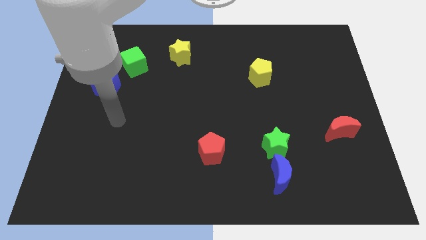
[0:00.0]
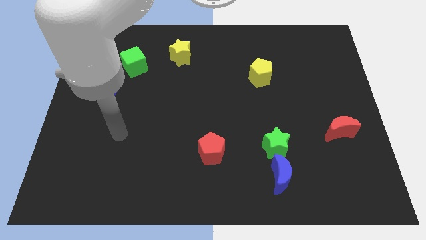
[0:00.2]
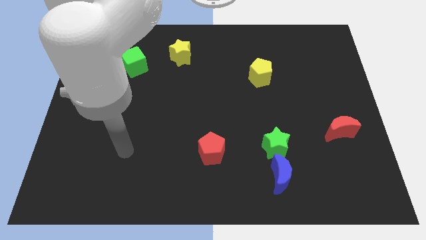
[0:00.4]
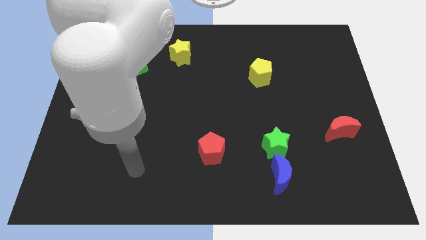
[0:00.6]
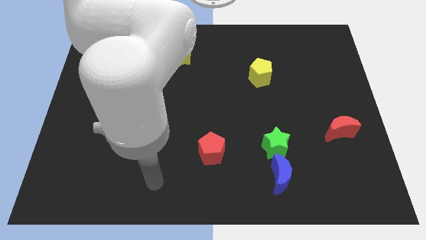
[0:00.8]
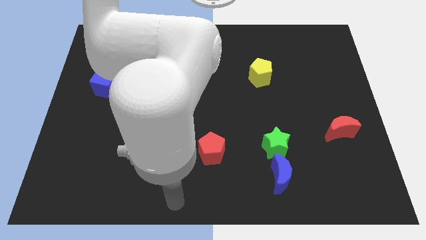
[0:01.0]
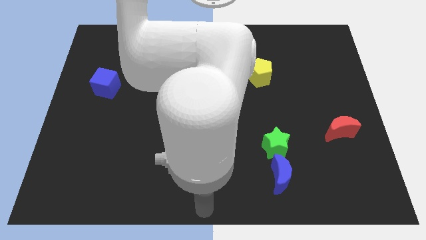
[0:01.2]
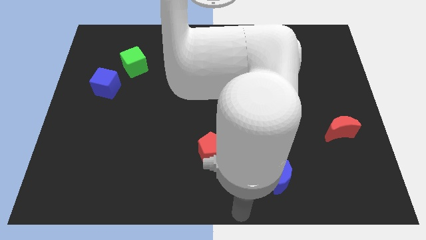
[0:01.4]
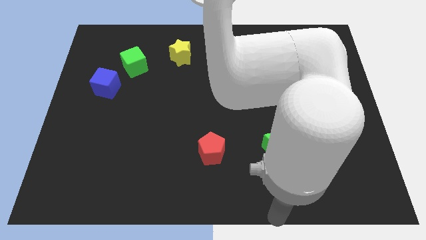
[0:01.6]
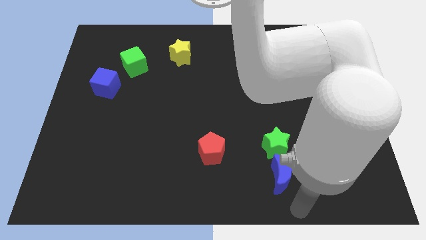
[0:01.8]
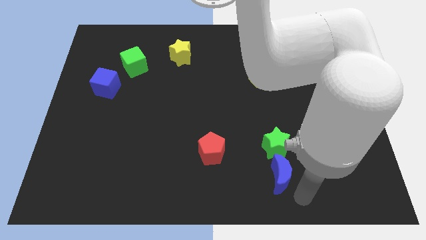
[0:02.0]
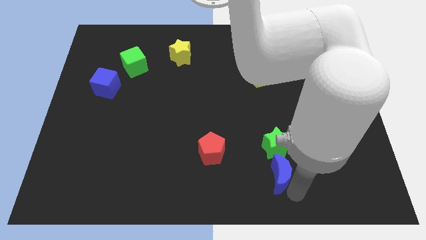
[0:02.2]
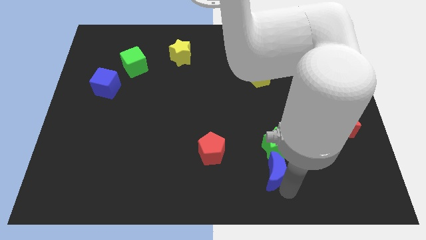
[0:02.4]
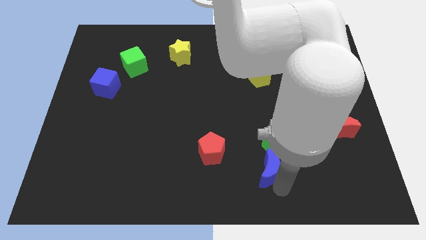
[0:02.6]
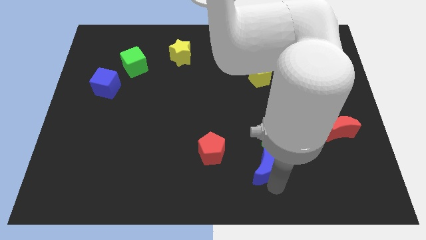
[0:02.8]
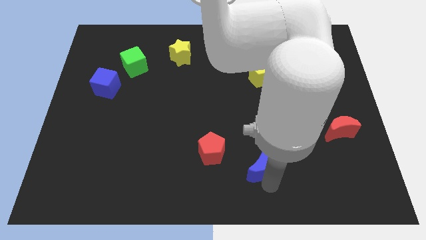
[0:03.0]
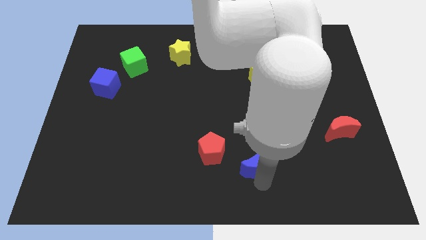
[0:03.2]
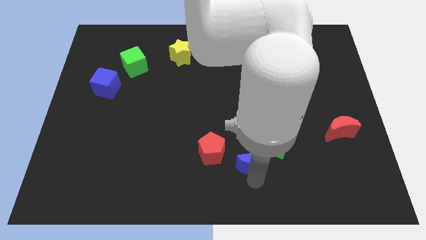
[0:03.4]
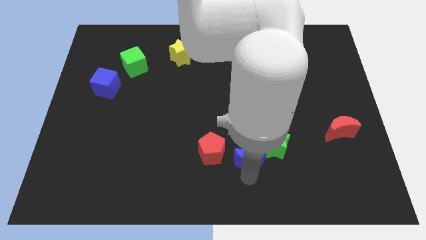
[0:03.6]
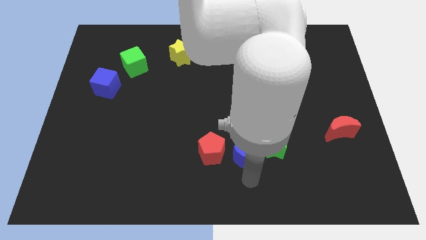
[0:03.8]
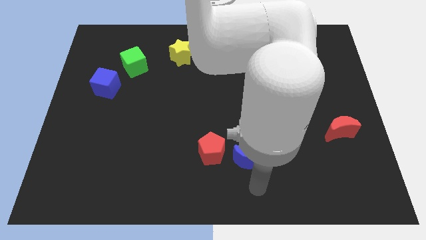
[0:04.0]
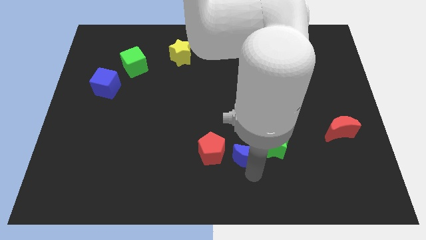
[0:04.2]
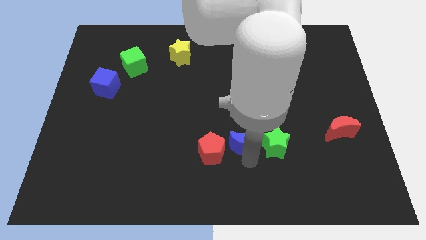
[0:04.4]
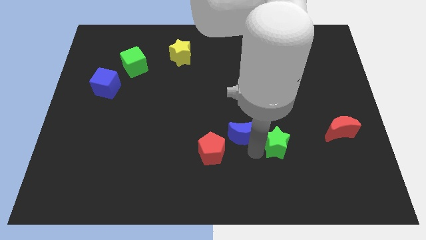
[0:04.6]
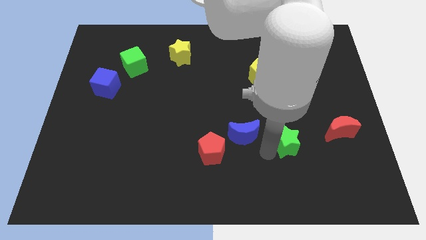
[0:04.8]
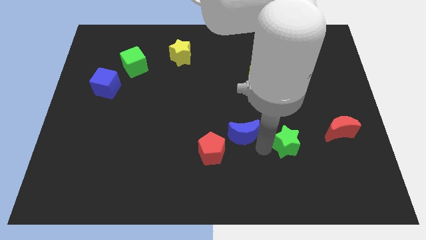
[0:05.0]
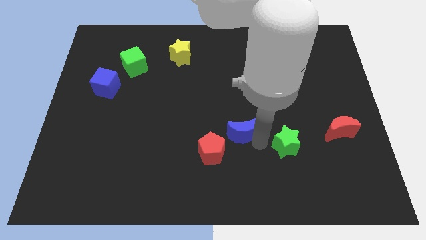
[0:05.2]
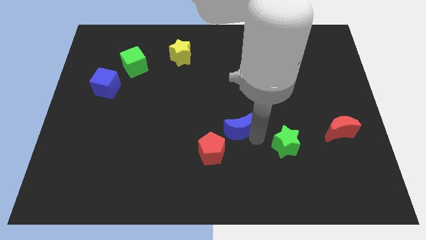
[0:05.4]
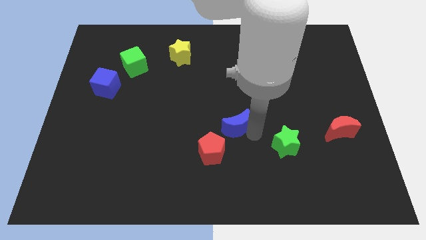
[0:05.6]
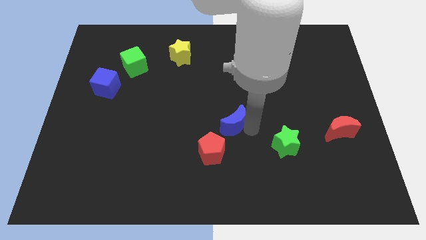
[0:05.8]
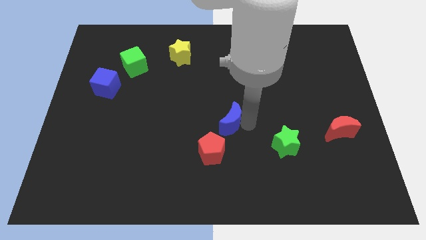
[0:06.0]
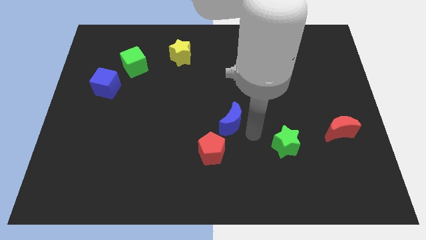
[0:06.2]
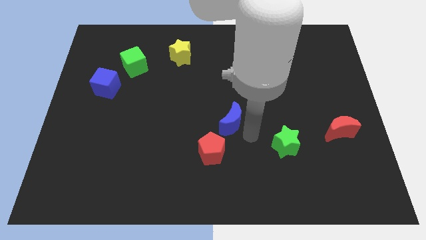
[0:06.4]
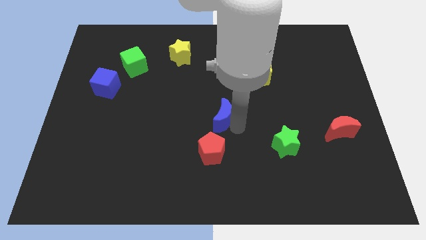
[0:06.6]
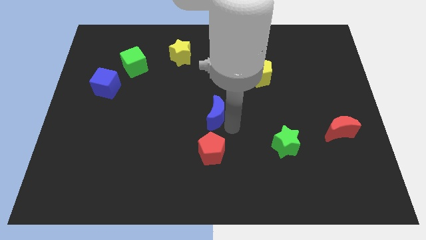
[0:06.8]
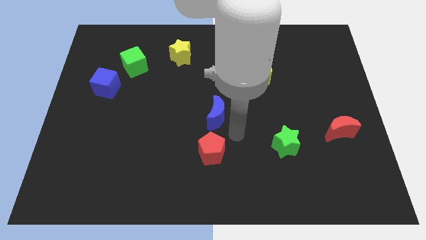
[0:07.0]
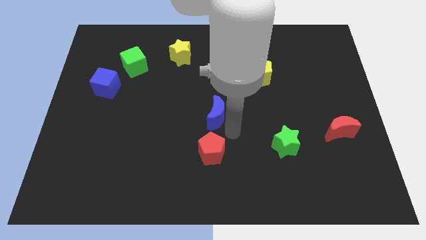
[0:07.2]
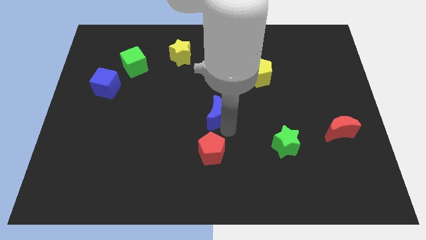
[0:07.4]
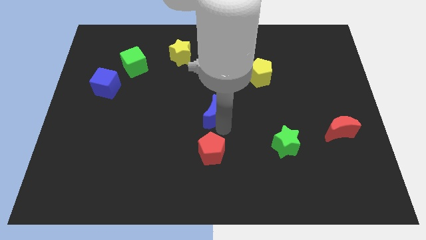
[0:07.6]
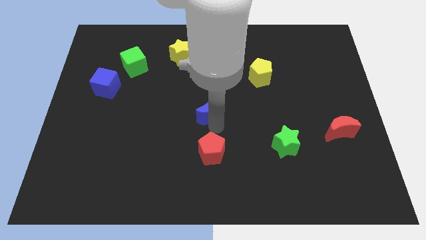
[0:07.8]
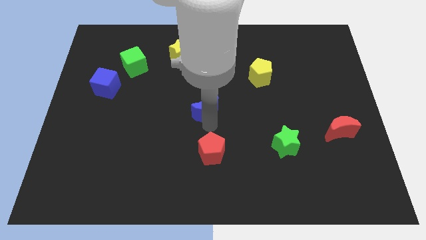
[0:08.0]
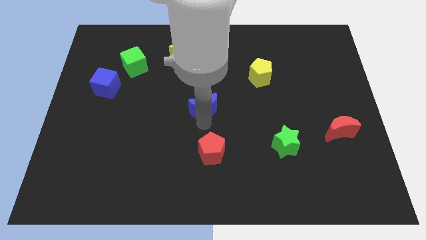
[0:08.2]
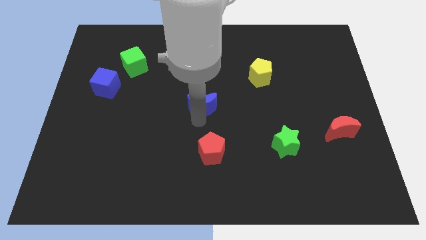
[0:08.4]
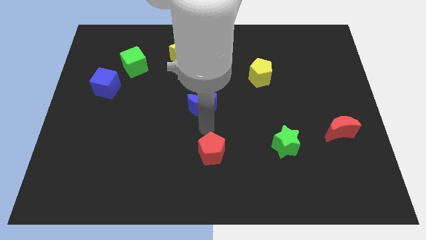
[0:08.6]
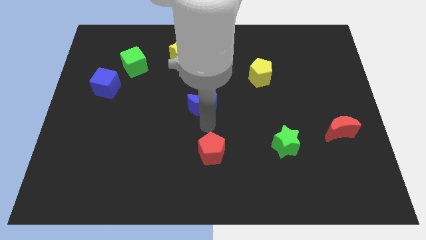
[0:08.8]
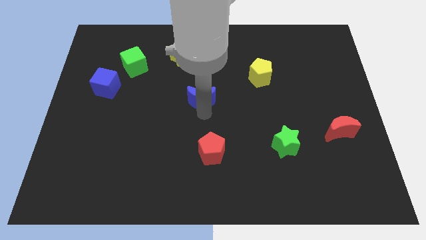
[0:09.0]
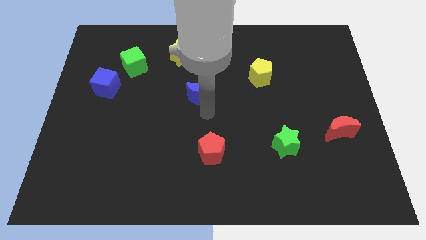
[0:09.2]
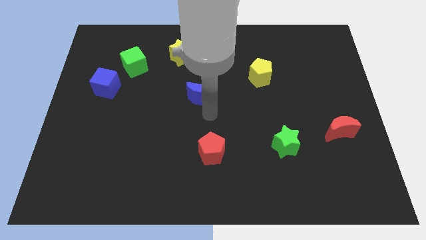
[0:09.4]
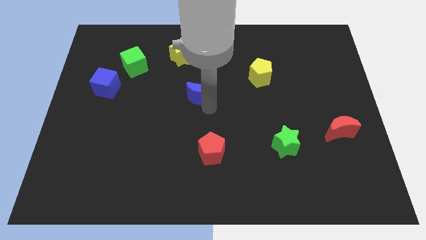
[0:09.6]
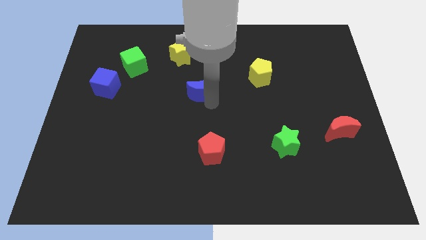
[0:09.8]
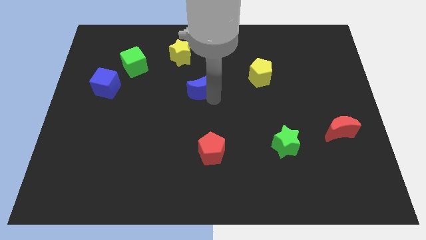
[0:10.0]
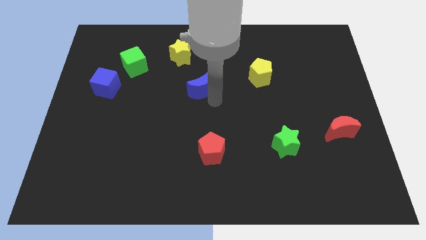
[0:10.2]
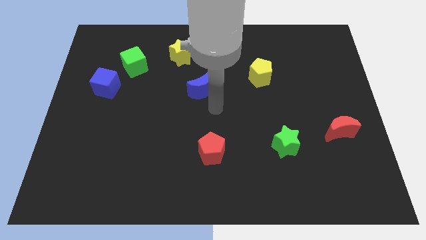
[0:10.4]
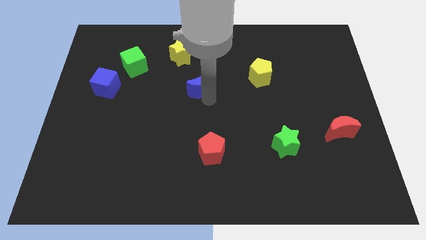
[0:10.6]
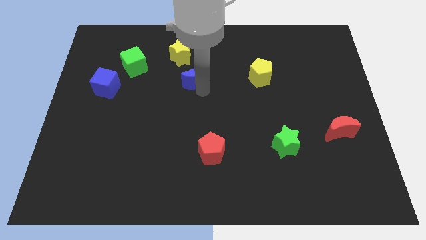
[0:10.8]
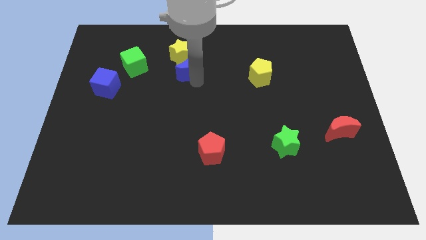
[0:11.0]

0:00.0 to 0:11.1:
push the blue moon towards the yellow star

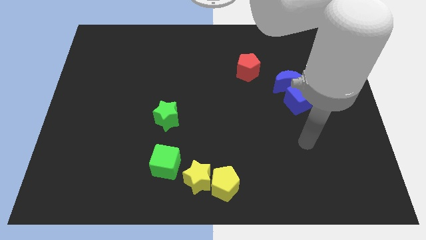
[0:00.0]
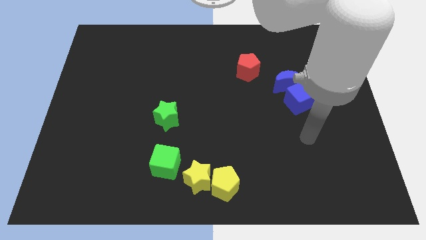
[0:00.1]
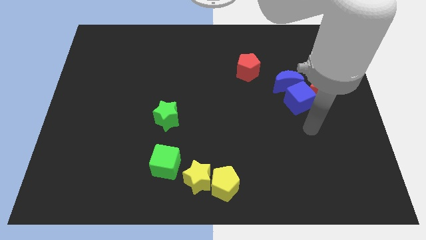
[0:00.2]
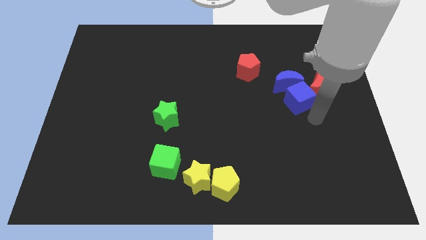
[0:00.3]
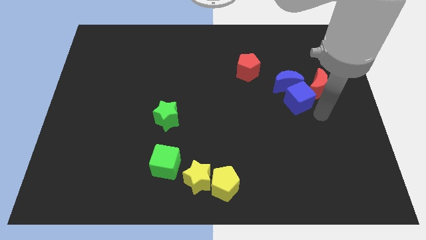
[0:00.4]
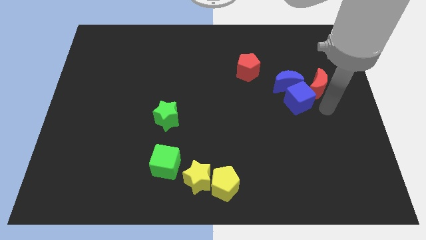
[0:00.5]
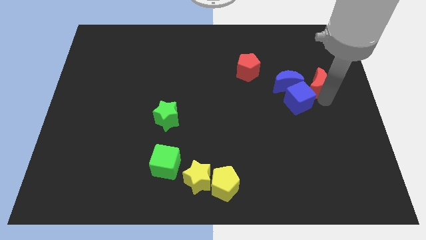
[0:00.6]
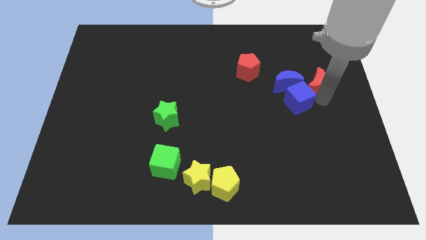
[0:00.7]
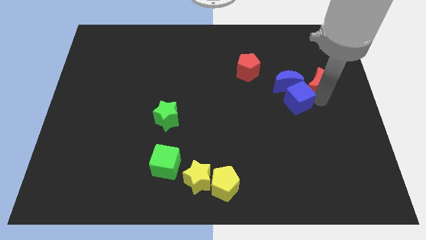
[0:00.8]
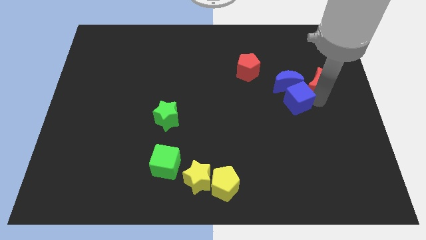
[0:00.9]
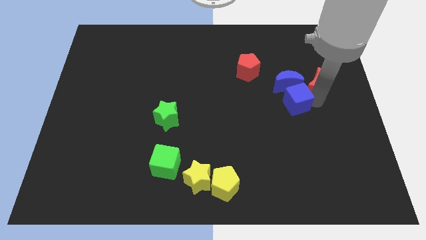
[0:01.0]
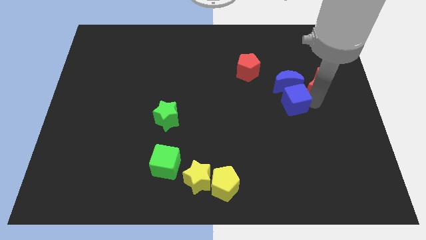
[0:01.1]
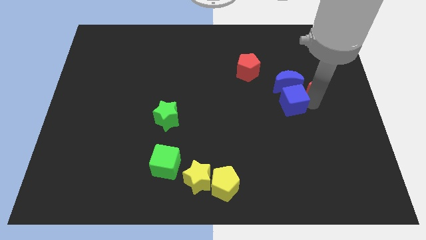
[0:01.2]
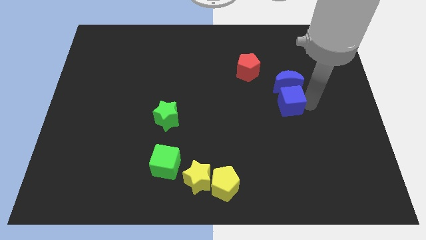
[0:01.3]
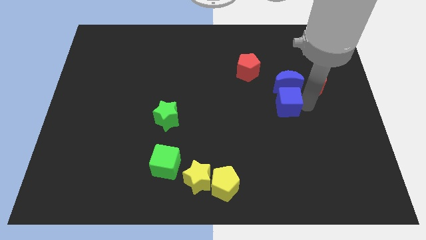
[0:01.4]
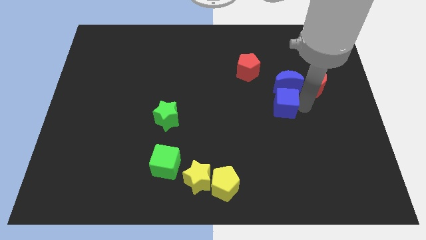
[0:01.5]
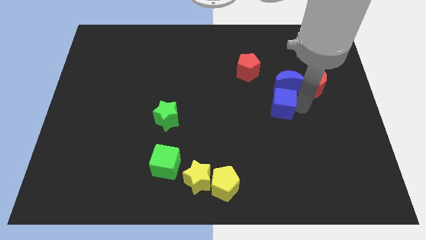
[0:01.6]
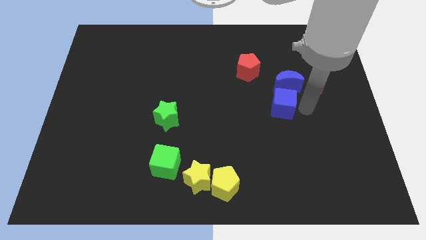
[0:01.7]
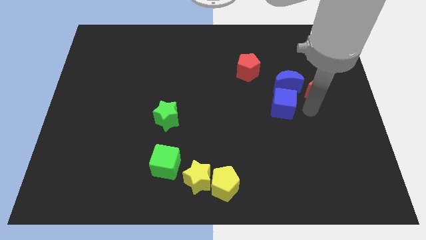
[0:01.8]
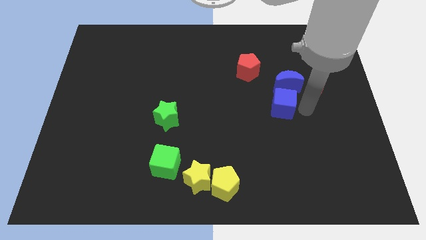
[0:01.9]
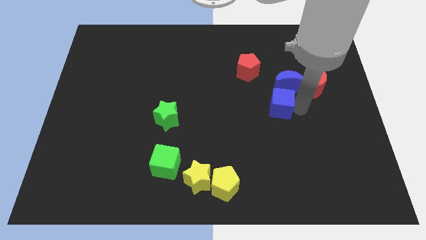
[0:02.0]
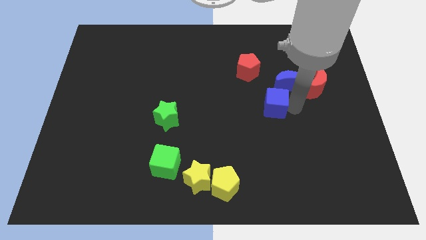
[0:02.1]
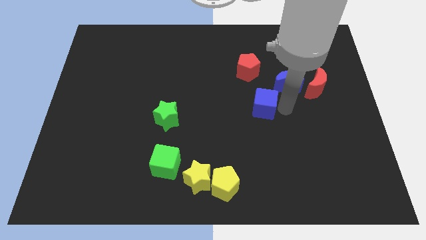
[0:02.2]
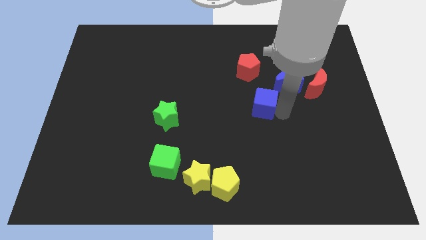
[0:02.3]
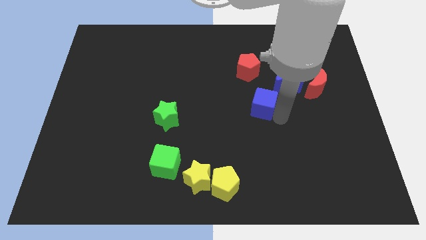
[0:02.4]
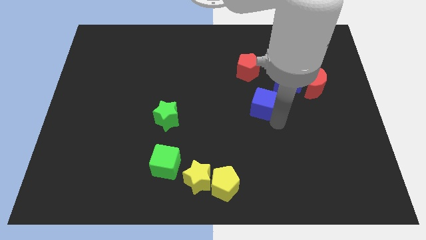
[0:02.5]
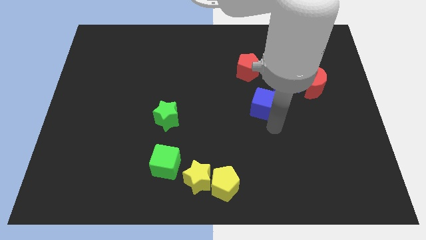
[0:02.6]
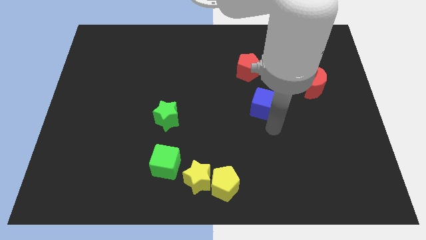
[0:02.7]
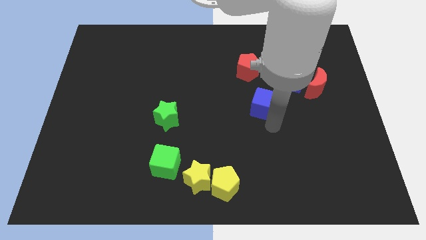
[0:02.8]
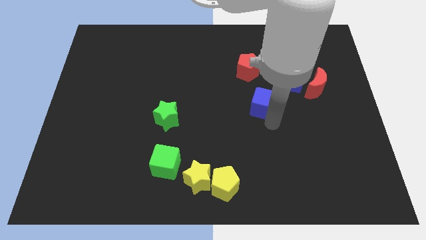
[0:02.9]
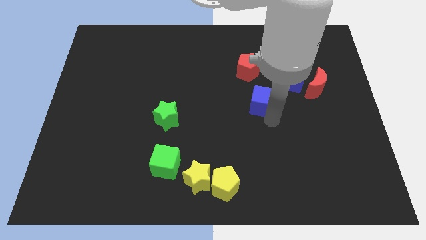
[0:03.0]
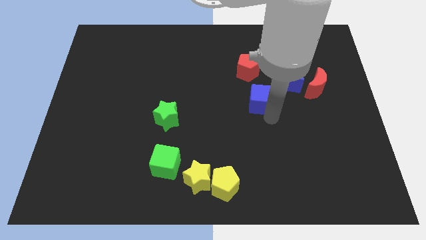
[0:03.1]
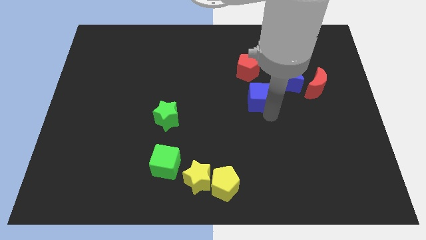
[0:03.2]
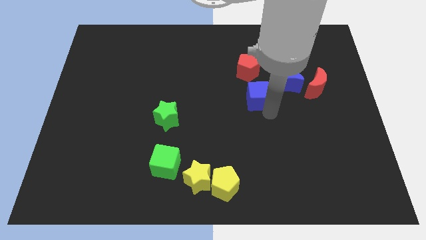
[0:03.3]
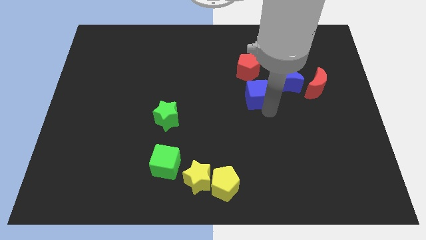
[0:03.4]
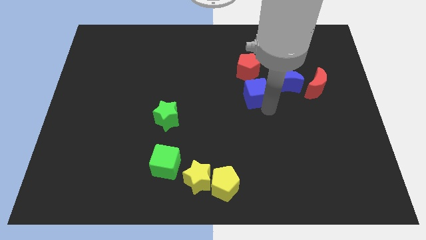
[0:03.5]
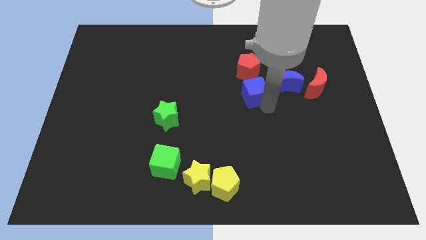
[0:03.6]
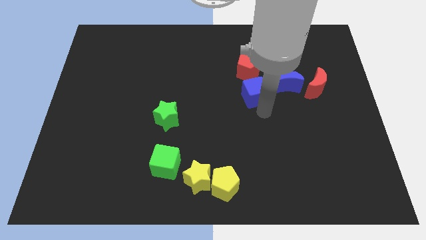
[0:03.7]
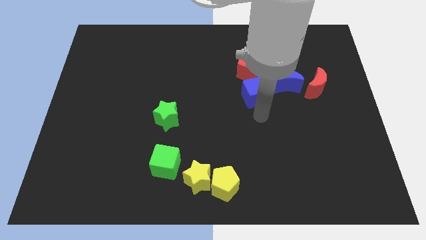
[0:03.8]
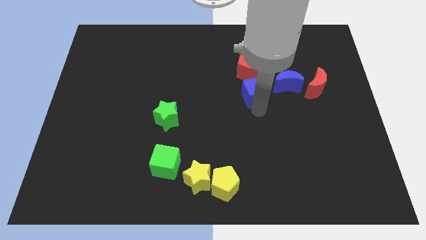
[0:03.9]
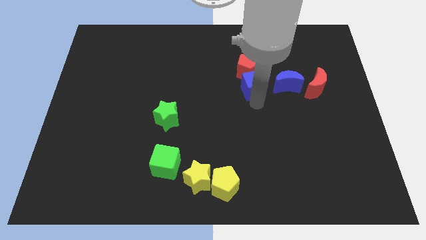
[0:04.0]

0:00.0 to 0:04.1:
move the blue cube towards the red pentagon
